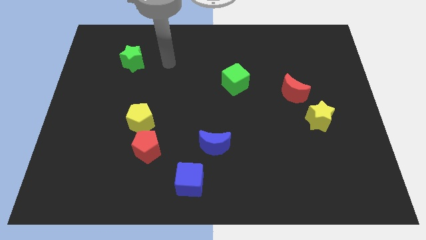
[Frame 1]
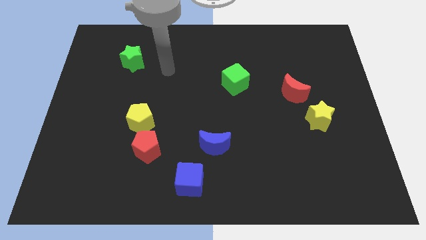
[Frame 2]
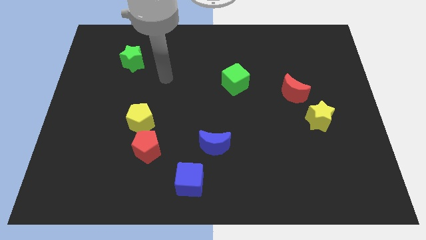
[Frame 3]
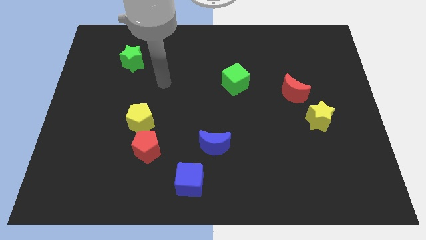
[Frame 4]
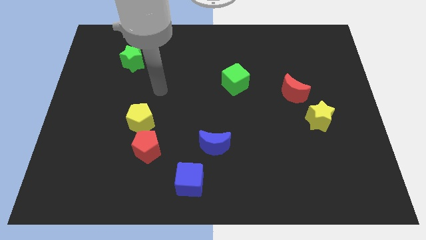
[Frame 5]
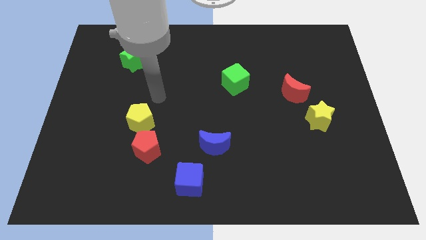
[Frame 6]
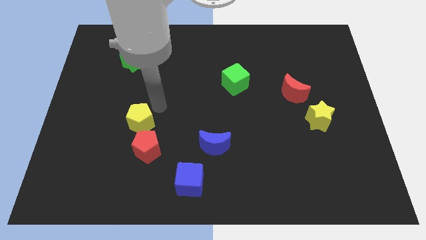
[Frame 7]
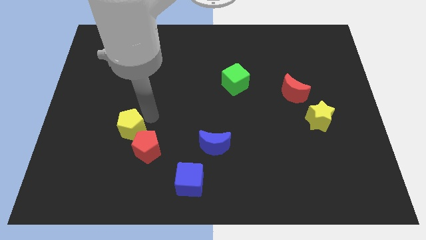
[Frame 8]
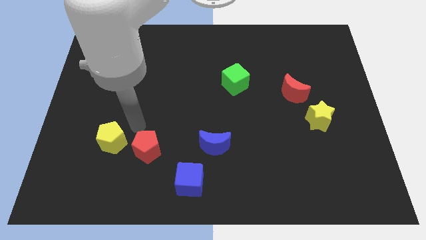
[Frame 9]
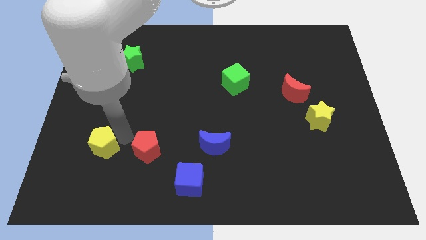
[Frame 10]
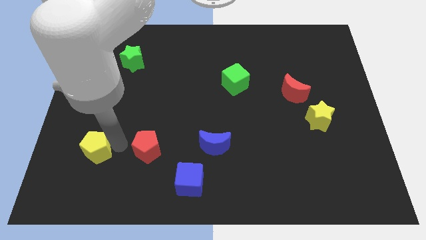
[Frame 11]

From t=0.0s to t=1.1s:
pull the red pentagon apart from the yellow pentagon

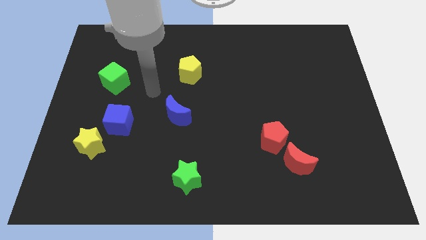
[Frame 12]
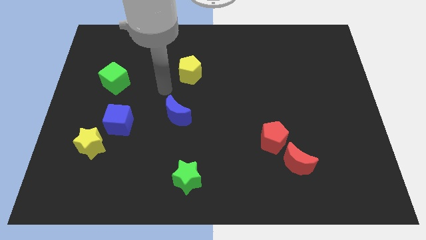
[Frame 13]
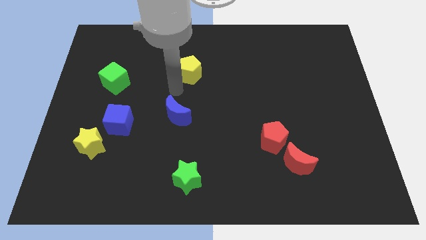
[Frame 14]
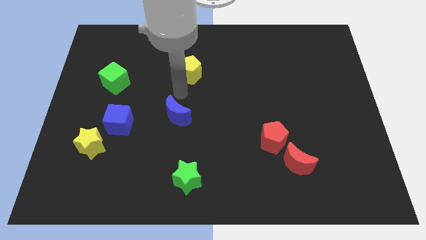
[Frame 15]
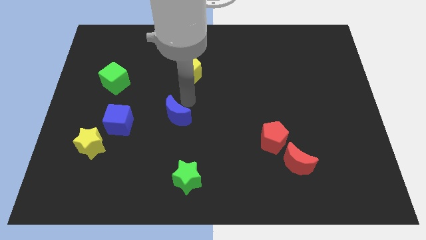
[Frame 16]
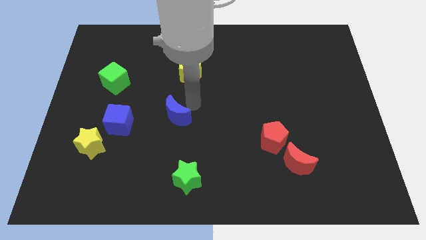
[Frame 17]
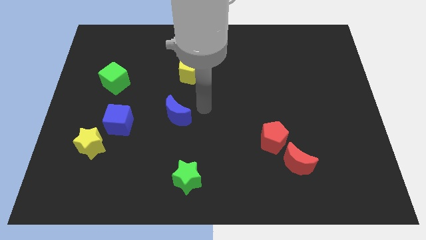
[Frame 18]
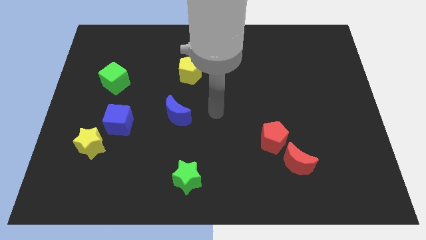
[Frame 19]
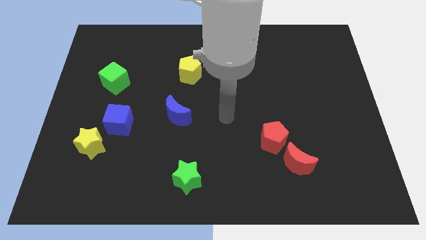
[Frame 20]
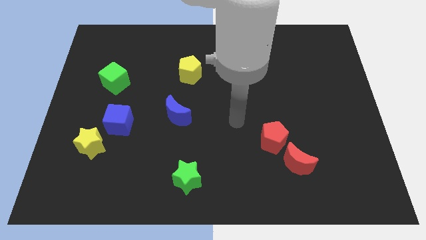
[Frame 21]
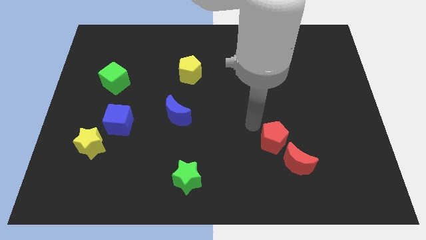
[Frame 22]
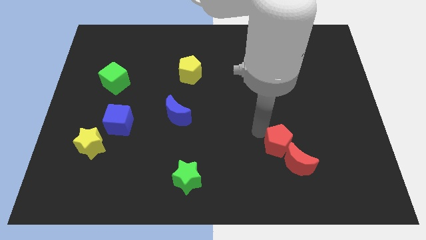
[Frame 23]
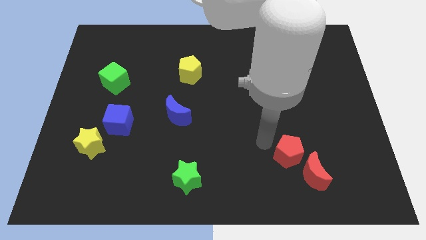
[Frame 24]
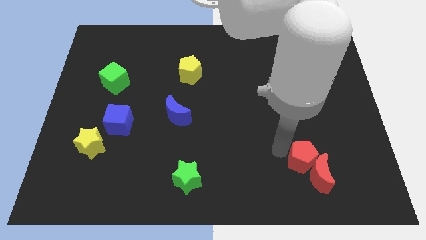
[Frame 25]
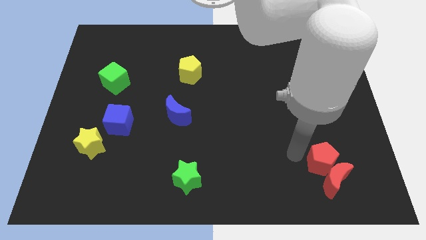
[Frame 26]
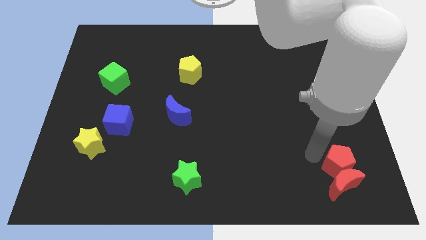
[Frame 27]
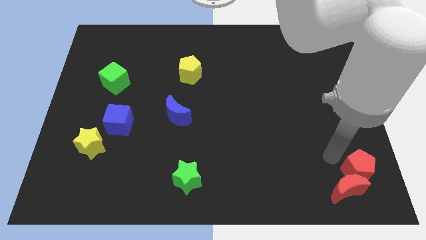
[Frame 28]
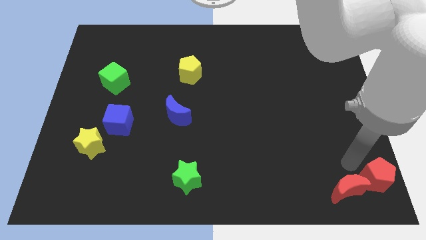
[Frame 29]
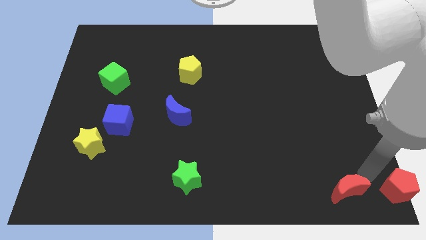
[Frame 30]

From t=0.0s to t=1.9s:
move the red moon away from the red pentagon

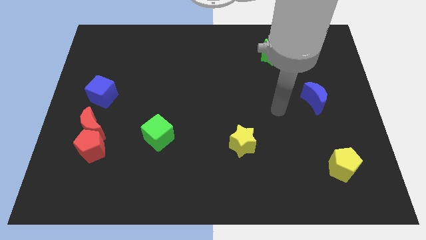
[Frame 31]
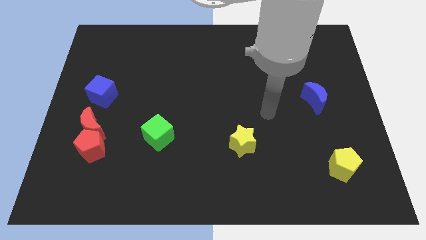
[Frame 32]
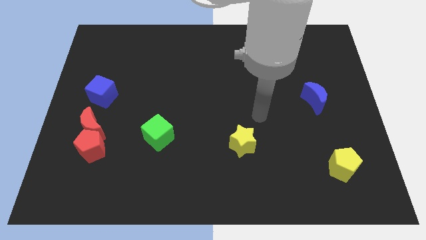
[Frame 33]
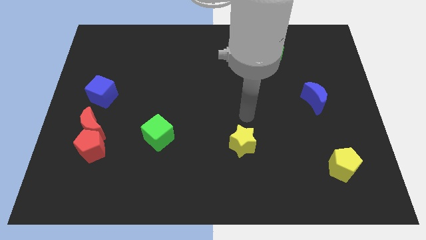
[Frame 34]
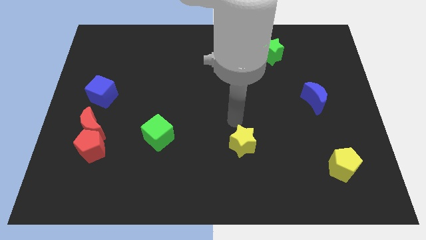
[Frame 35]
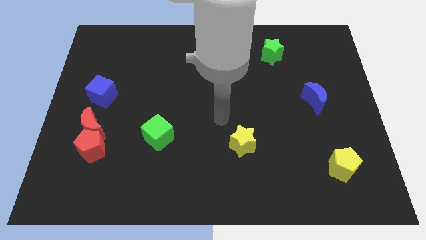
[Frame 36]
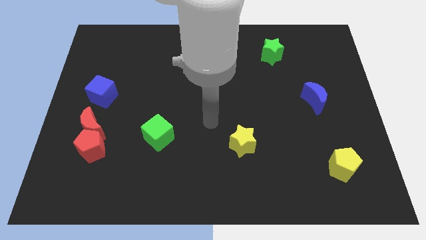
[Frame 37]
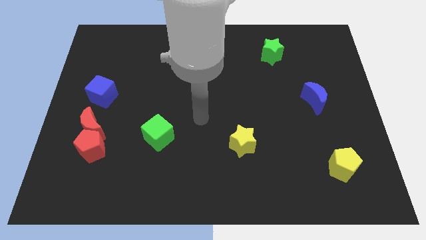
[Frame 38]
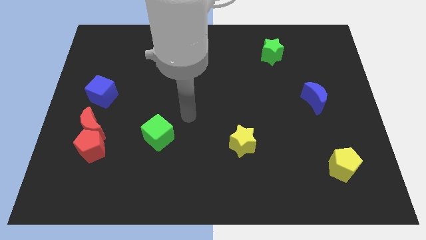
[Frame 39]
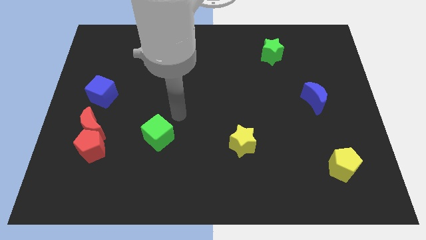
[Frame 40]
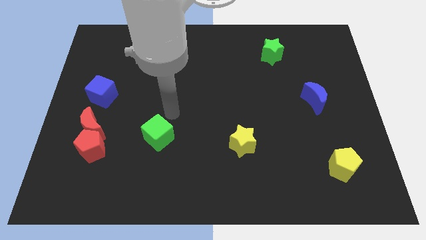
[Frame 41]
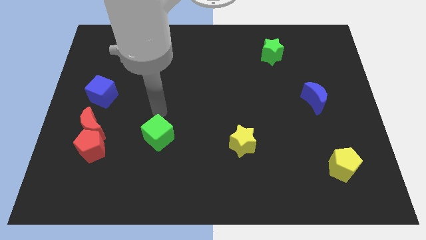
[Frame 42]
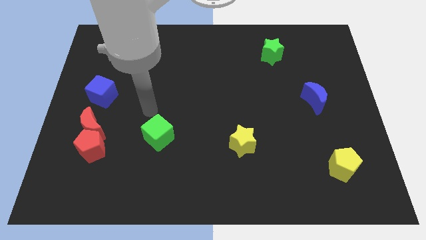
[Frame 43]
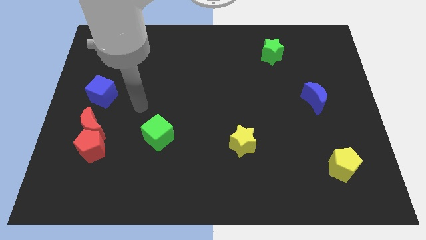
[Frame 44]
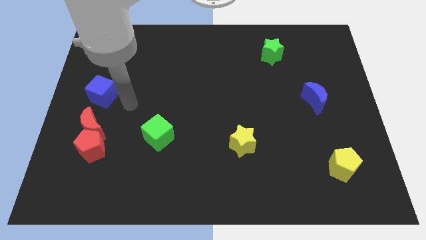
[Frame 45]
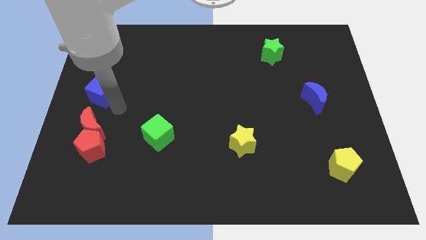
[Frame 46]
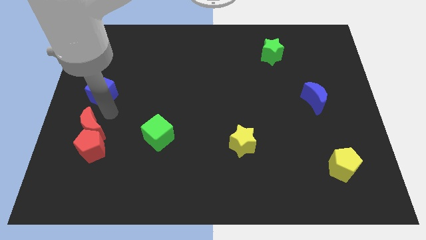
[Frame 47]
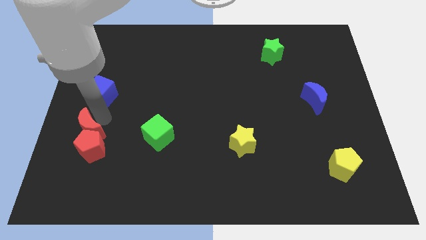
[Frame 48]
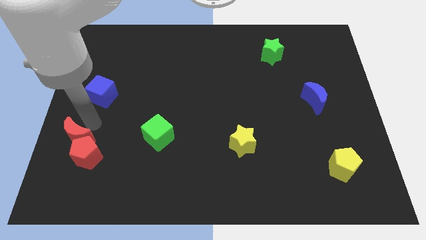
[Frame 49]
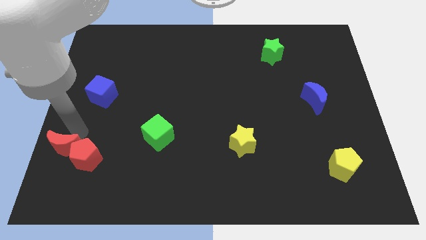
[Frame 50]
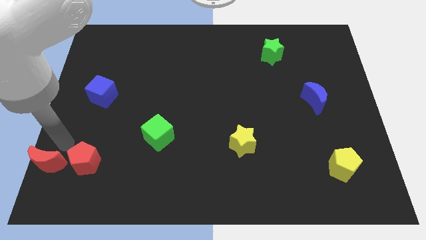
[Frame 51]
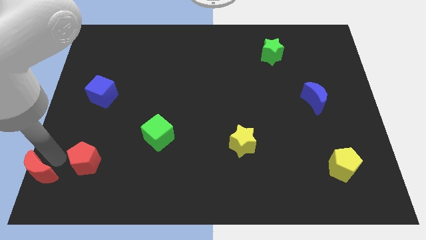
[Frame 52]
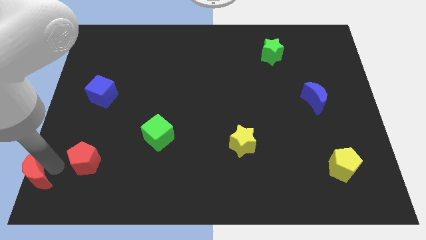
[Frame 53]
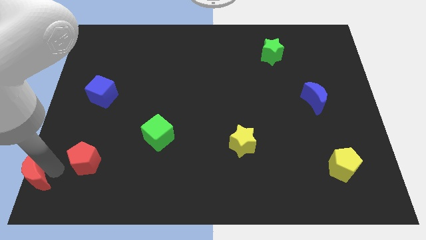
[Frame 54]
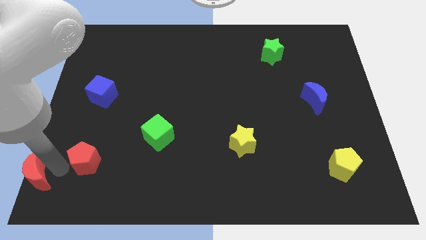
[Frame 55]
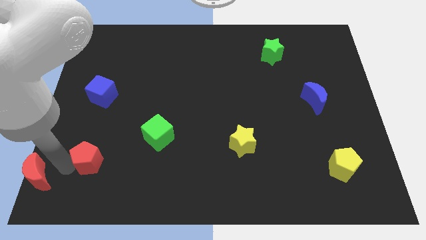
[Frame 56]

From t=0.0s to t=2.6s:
separate the red pentagon from the red moon

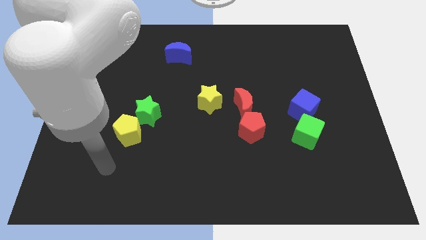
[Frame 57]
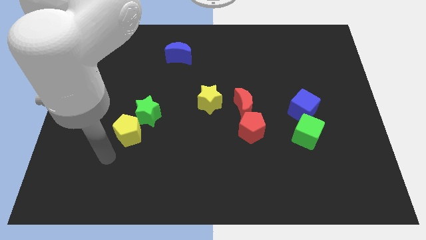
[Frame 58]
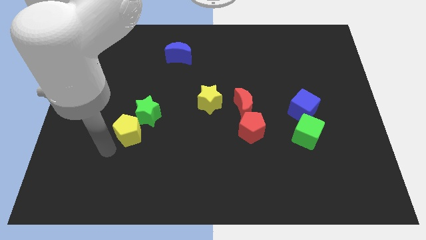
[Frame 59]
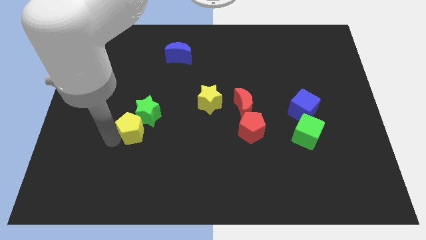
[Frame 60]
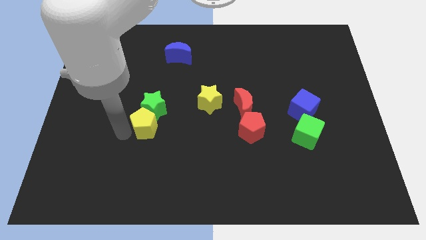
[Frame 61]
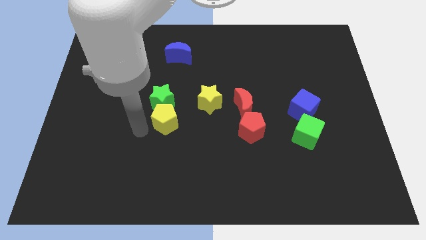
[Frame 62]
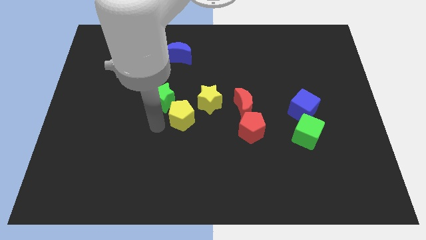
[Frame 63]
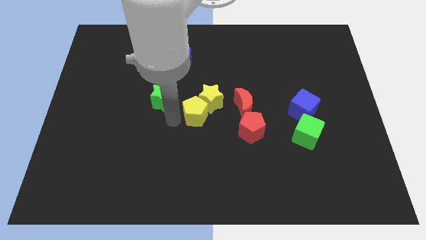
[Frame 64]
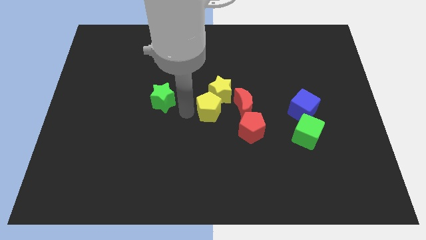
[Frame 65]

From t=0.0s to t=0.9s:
move the green star away from the yellow pentagon

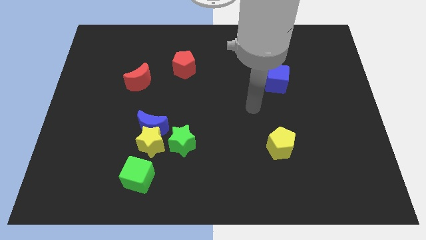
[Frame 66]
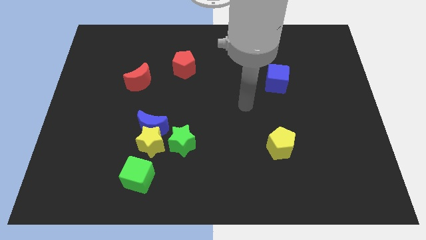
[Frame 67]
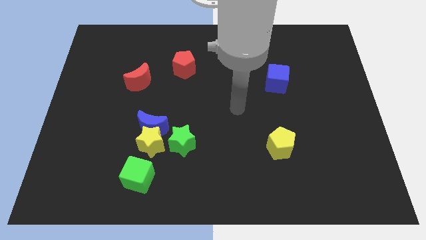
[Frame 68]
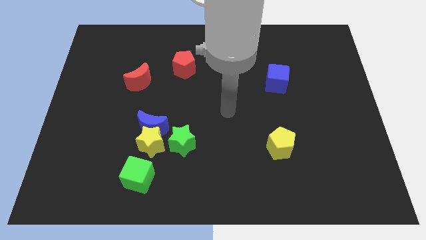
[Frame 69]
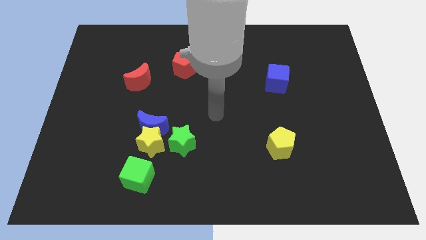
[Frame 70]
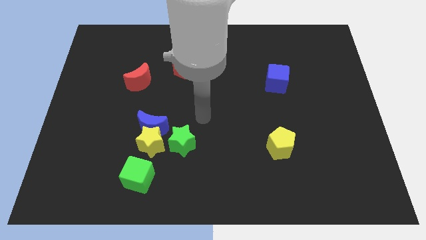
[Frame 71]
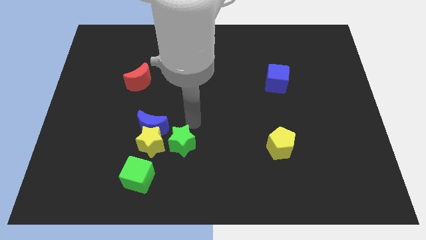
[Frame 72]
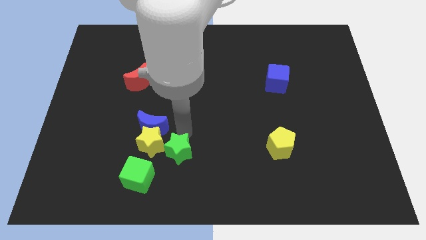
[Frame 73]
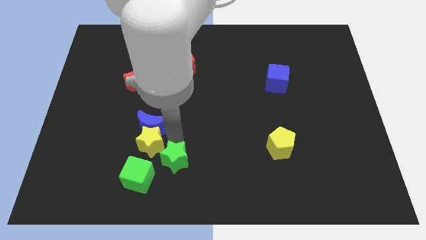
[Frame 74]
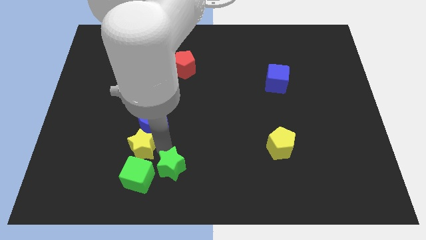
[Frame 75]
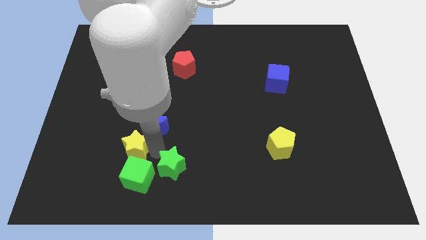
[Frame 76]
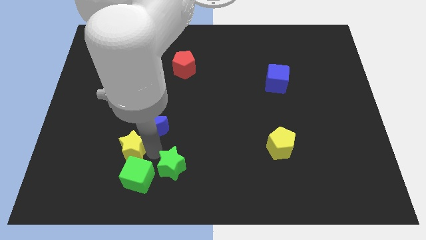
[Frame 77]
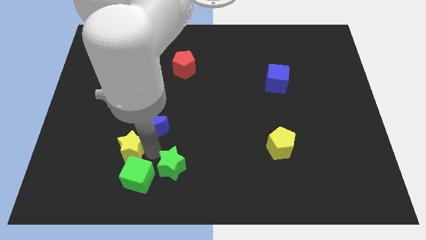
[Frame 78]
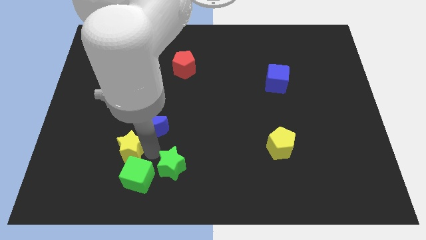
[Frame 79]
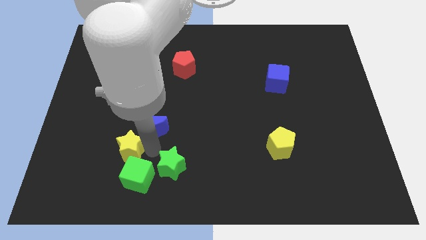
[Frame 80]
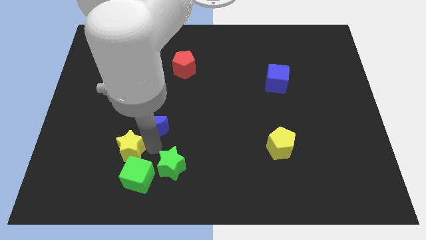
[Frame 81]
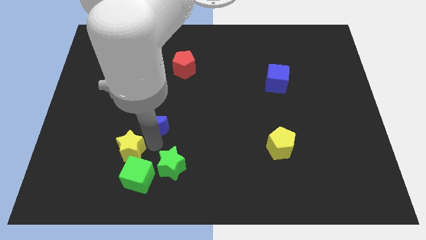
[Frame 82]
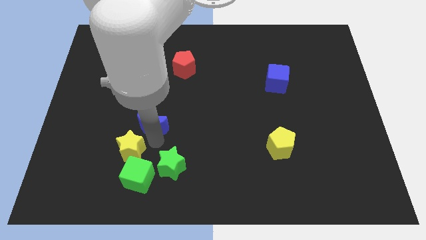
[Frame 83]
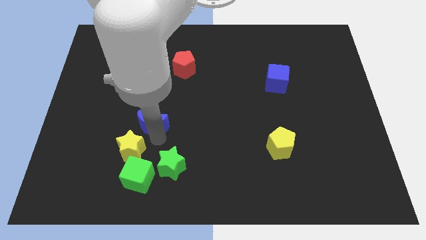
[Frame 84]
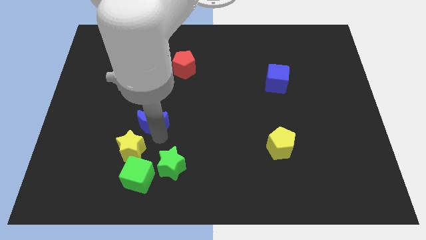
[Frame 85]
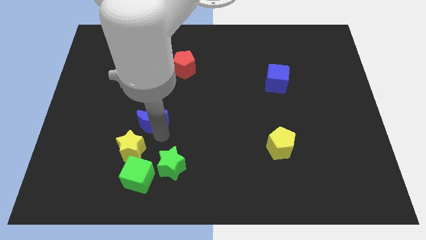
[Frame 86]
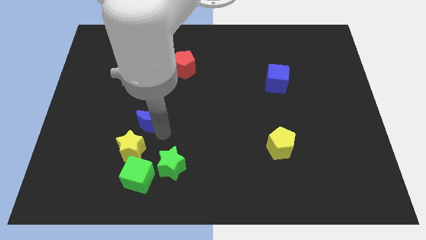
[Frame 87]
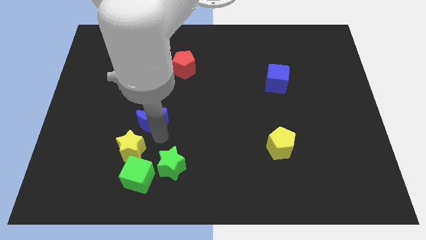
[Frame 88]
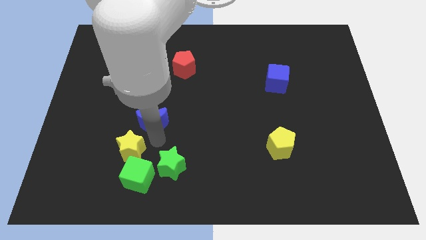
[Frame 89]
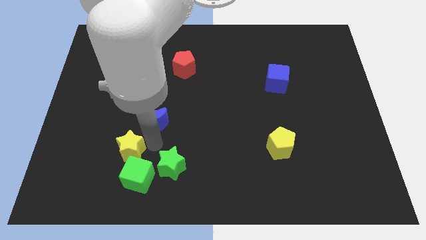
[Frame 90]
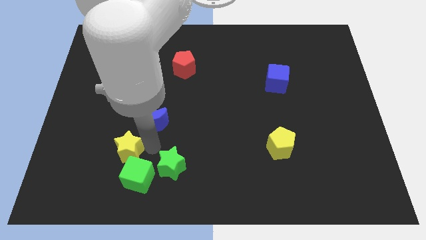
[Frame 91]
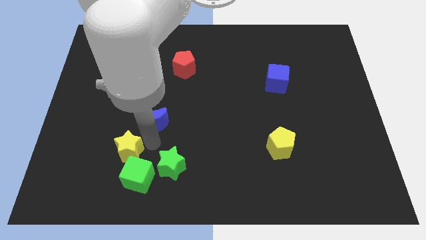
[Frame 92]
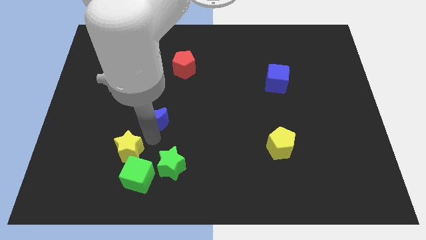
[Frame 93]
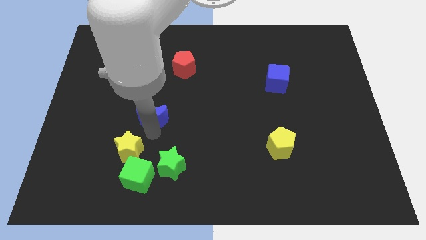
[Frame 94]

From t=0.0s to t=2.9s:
separate the blue moon from the yellow star and green star

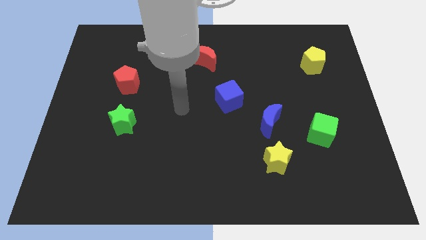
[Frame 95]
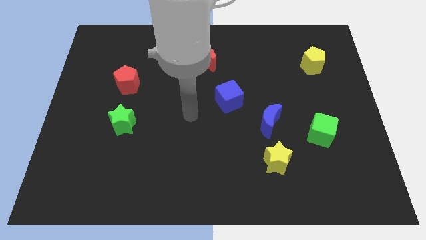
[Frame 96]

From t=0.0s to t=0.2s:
separate the blue moon from the yellow star
